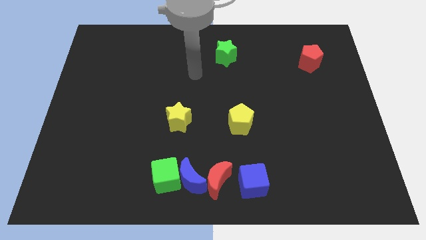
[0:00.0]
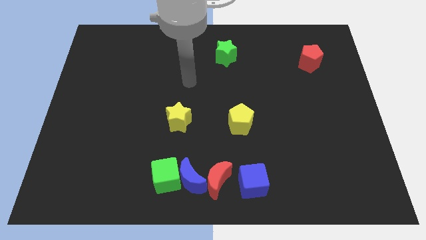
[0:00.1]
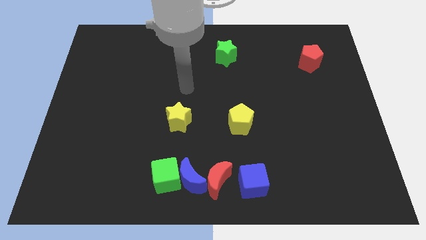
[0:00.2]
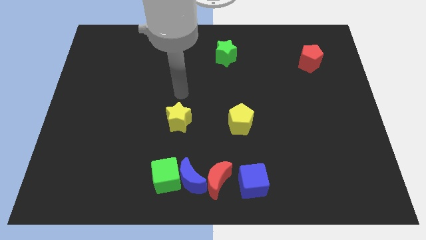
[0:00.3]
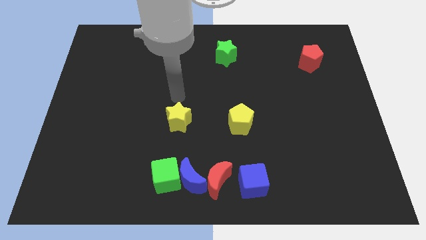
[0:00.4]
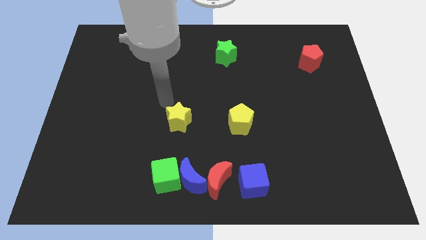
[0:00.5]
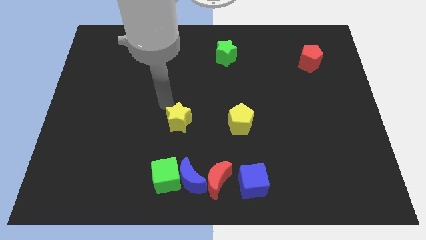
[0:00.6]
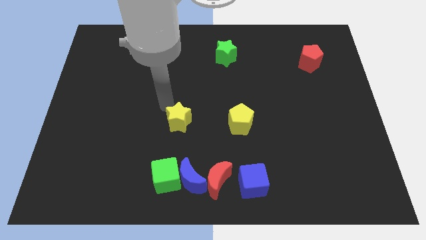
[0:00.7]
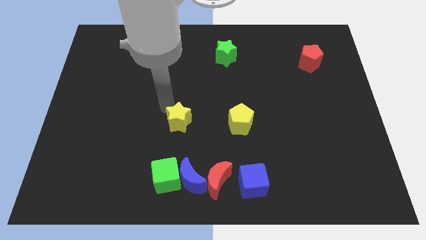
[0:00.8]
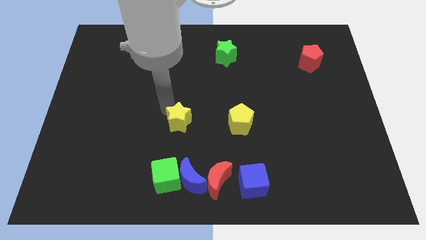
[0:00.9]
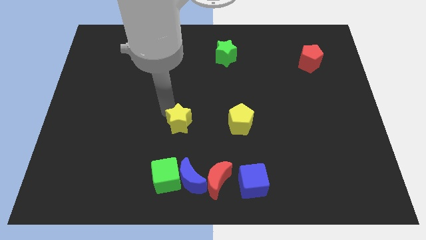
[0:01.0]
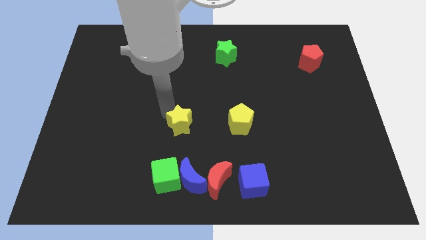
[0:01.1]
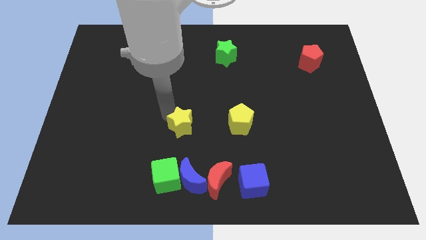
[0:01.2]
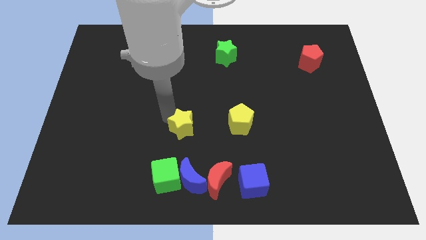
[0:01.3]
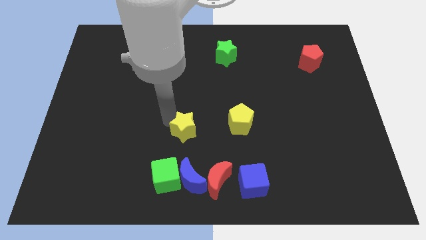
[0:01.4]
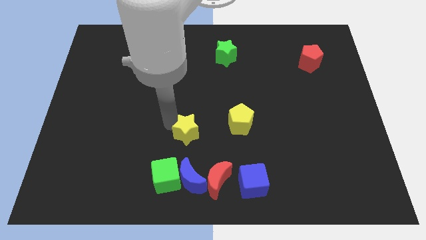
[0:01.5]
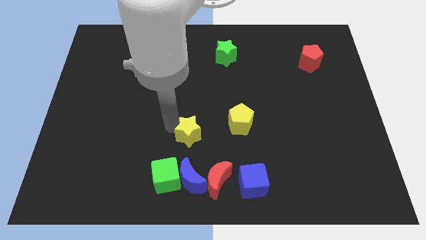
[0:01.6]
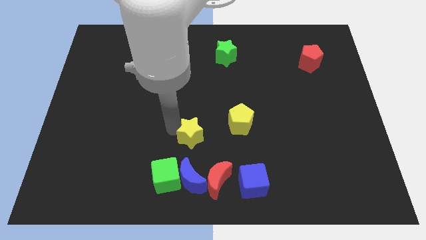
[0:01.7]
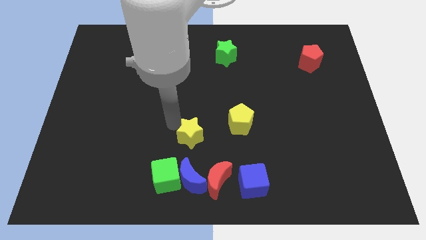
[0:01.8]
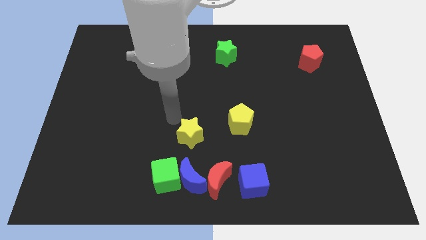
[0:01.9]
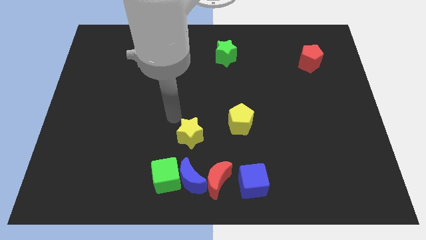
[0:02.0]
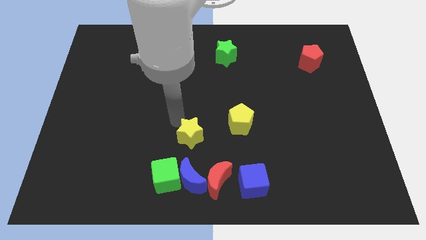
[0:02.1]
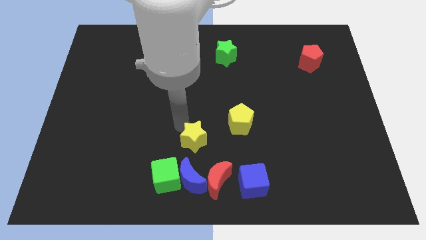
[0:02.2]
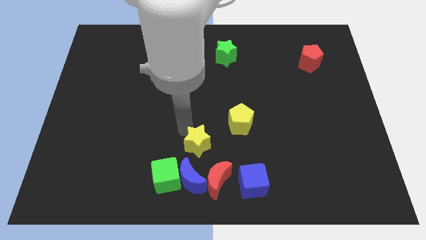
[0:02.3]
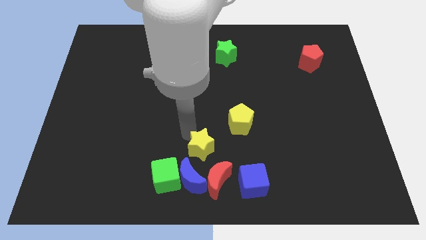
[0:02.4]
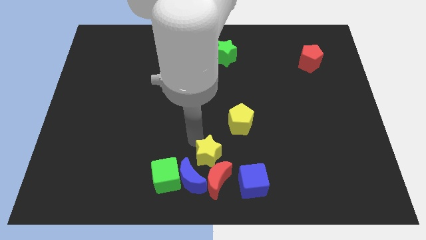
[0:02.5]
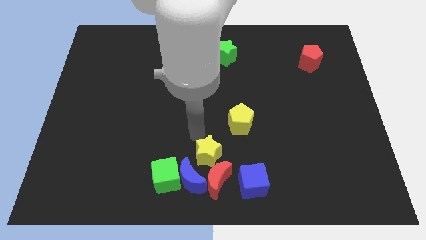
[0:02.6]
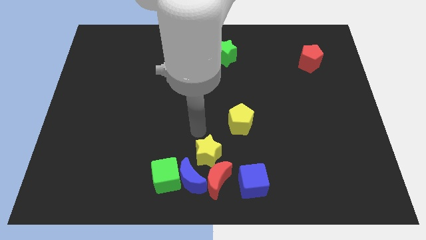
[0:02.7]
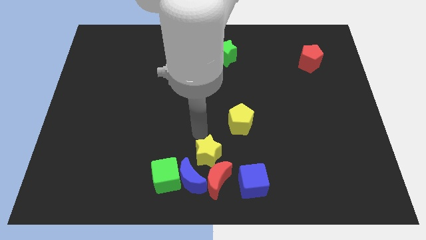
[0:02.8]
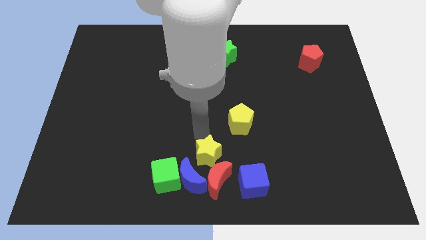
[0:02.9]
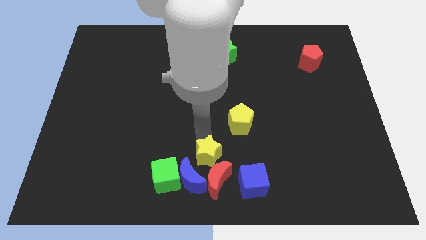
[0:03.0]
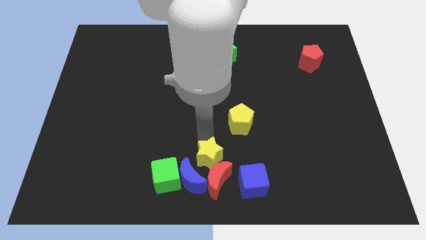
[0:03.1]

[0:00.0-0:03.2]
move the yellow star to the red moon

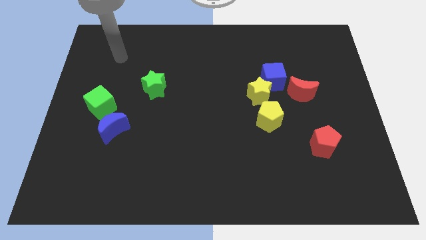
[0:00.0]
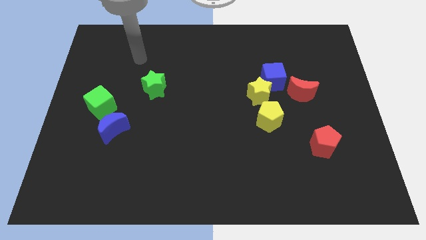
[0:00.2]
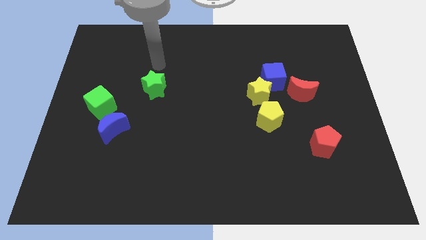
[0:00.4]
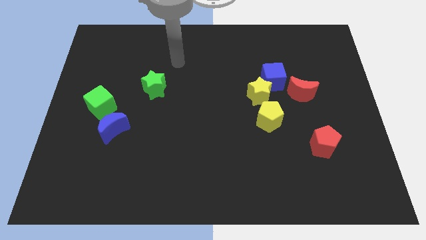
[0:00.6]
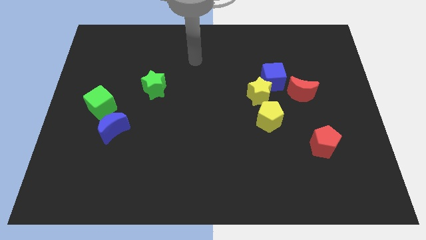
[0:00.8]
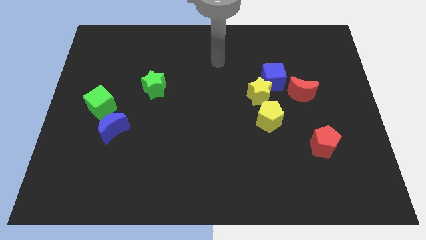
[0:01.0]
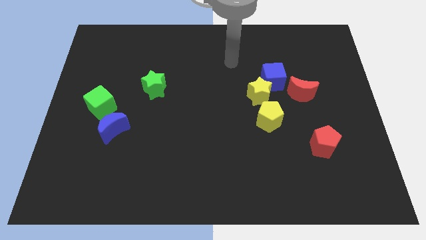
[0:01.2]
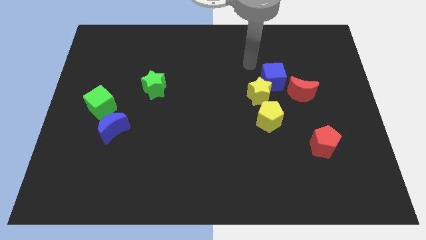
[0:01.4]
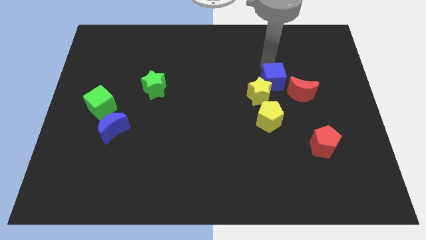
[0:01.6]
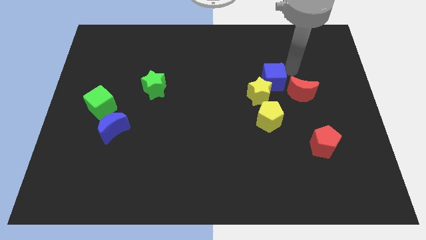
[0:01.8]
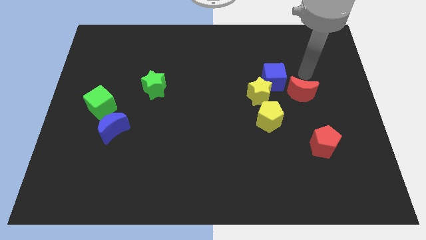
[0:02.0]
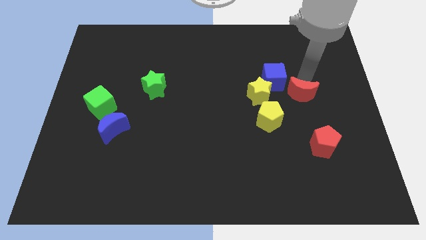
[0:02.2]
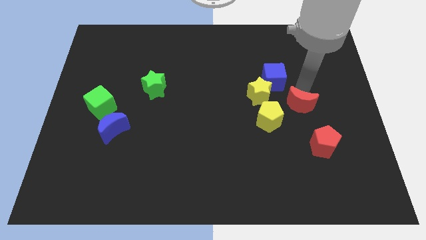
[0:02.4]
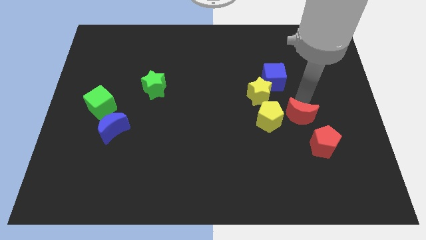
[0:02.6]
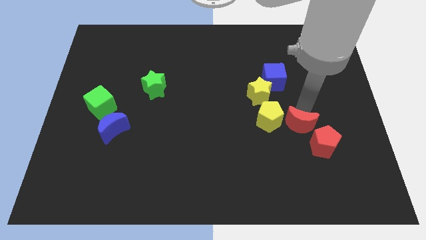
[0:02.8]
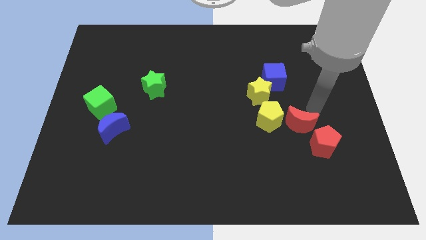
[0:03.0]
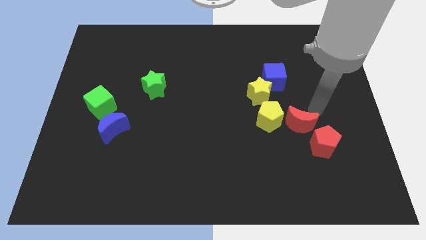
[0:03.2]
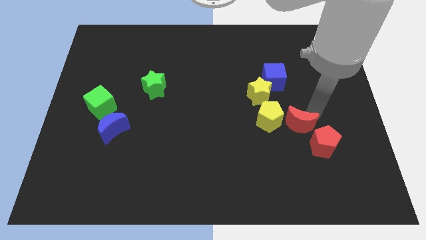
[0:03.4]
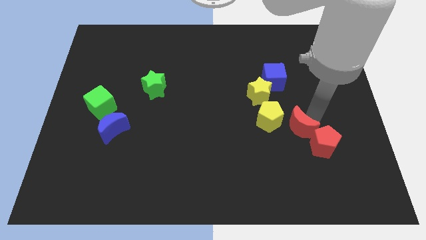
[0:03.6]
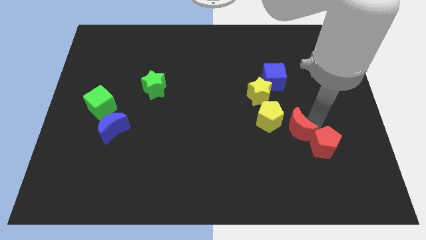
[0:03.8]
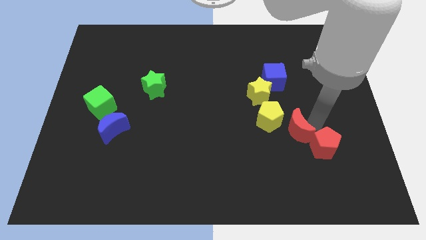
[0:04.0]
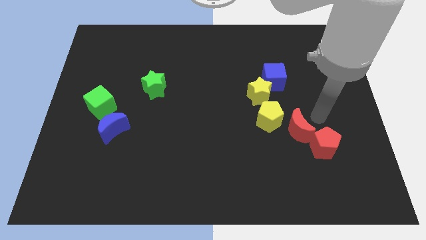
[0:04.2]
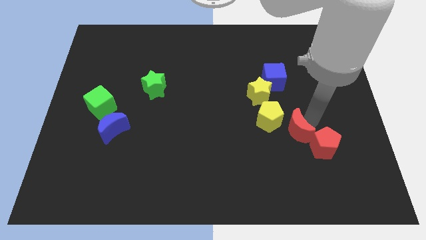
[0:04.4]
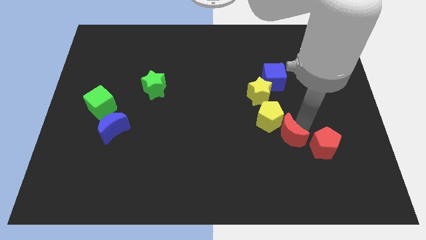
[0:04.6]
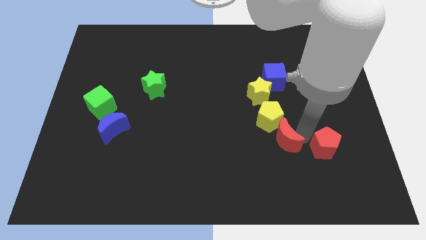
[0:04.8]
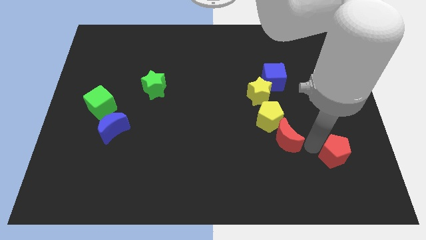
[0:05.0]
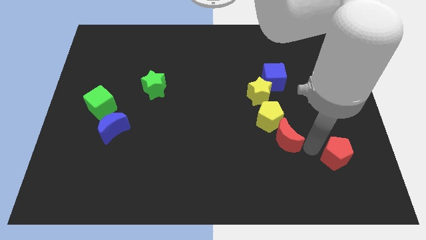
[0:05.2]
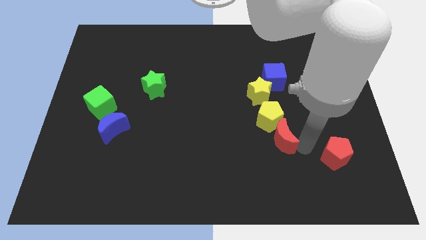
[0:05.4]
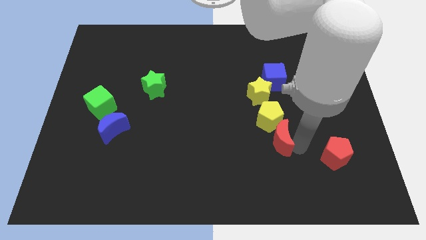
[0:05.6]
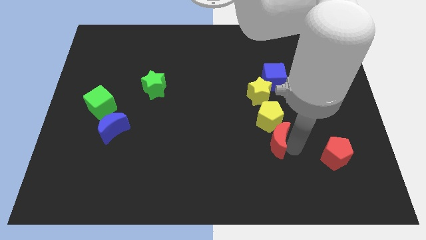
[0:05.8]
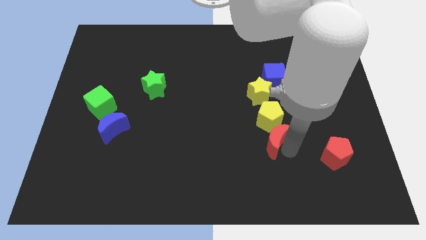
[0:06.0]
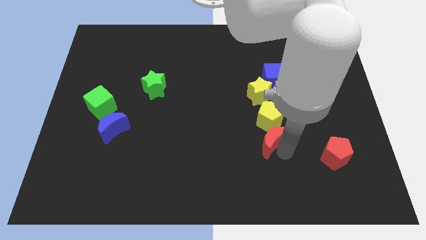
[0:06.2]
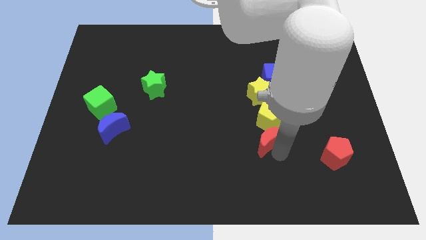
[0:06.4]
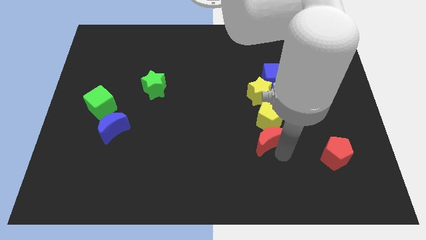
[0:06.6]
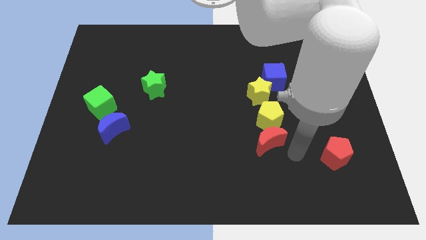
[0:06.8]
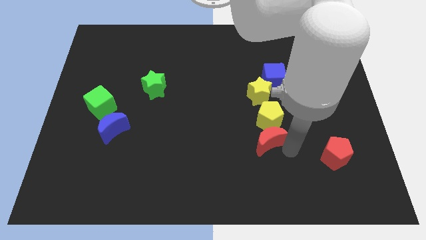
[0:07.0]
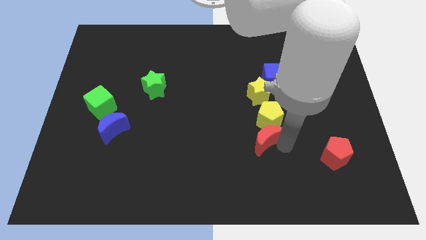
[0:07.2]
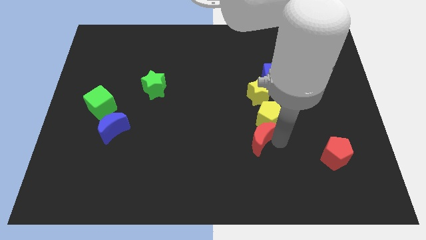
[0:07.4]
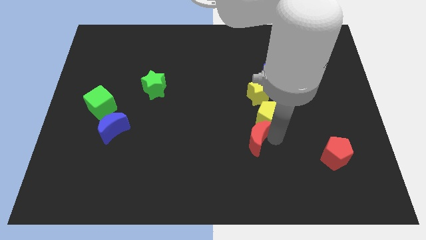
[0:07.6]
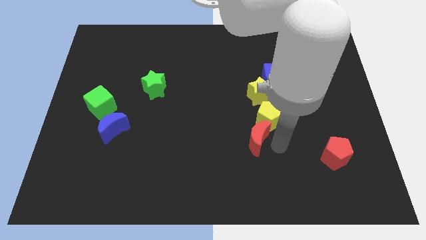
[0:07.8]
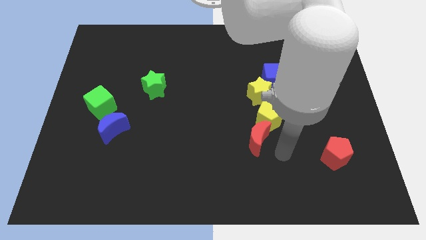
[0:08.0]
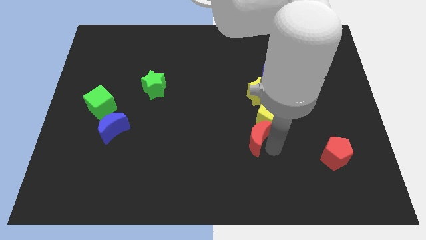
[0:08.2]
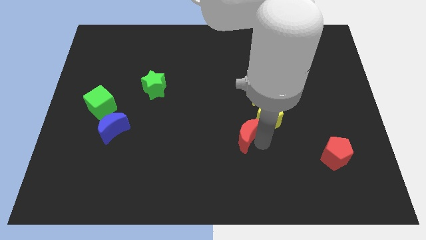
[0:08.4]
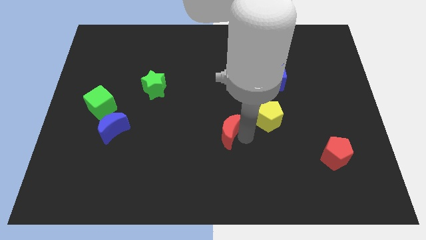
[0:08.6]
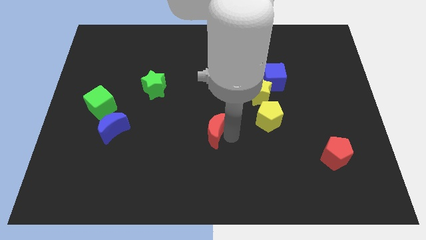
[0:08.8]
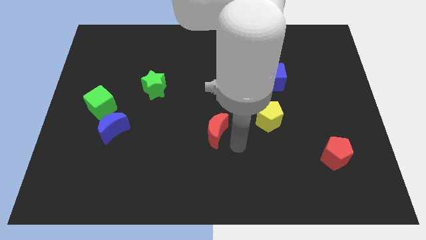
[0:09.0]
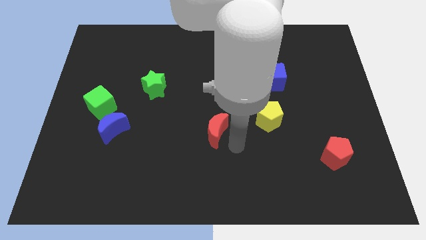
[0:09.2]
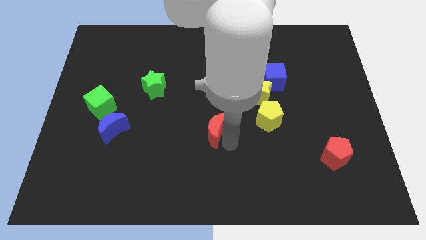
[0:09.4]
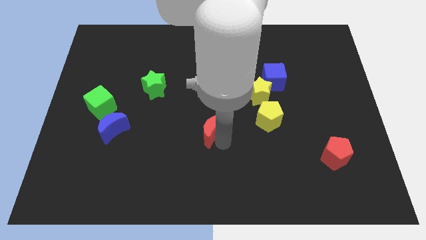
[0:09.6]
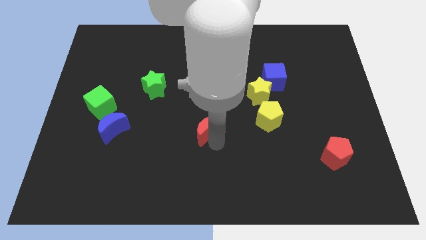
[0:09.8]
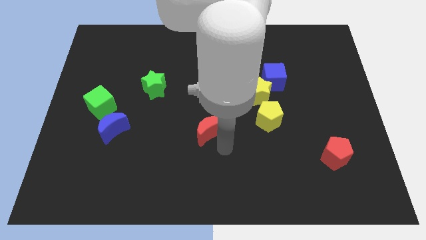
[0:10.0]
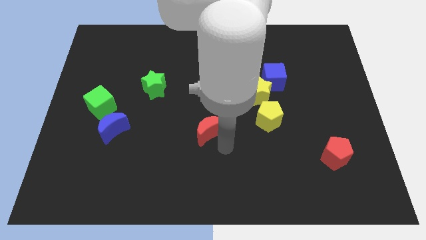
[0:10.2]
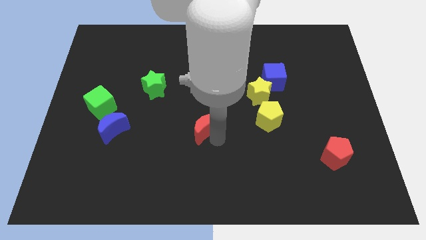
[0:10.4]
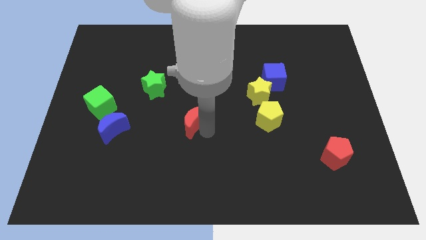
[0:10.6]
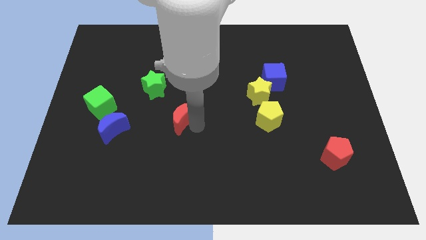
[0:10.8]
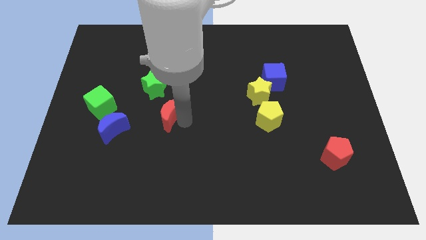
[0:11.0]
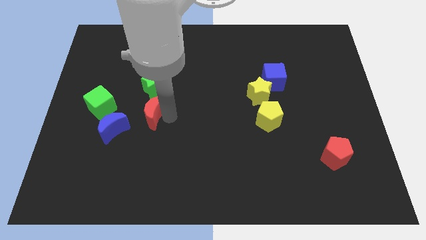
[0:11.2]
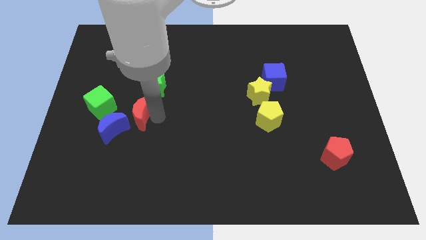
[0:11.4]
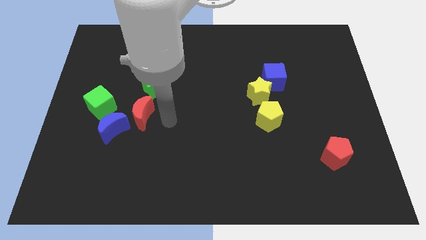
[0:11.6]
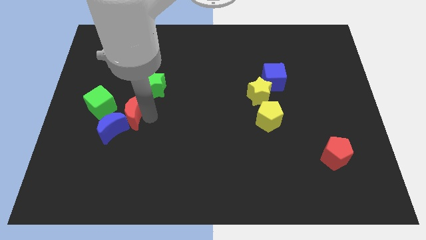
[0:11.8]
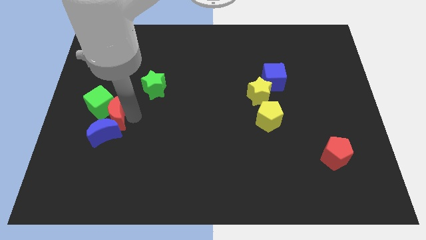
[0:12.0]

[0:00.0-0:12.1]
push the red moon close to the green cube
